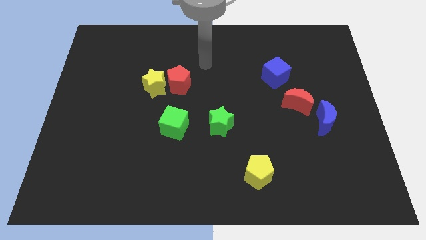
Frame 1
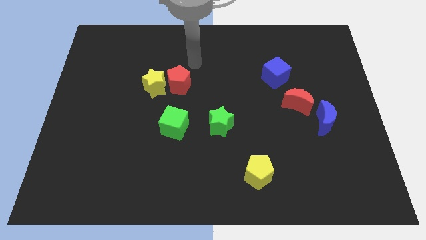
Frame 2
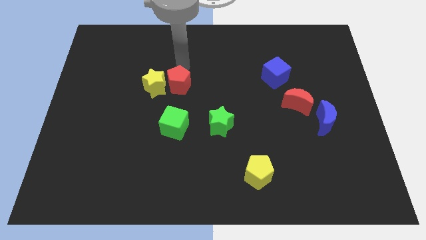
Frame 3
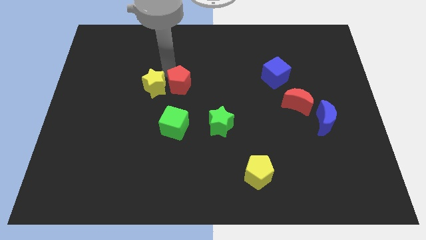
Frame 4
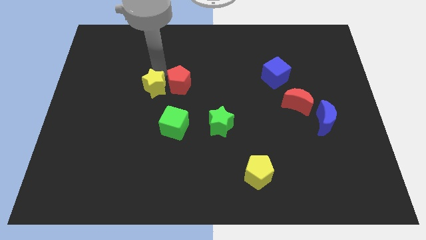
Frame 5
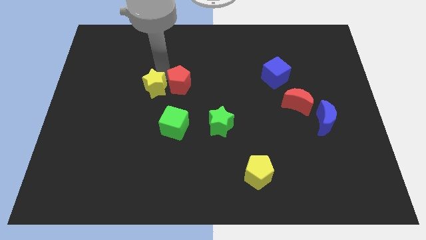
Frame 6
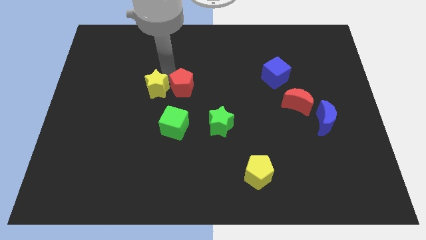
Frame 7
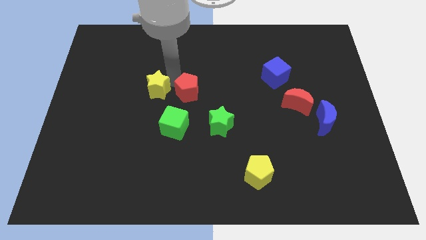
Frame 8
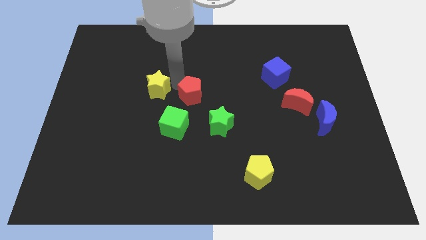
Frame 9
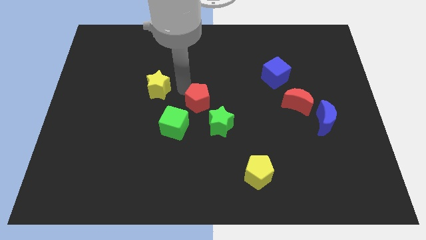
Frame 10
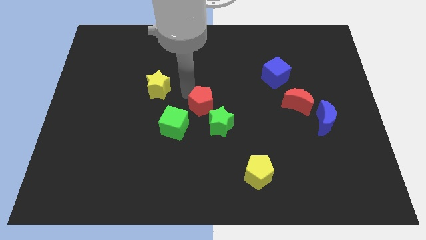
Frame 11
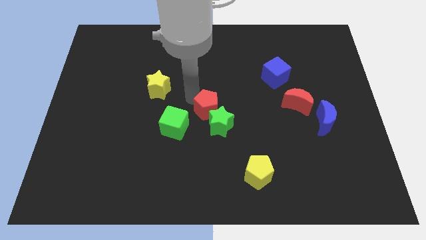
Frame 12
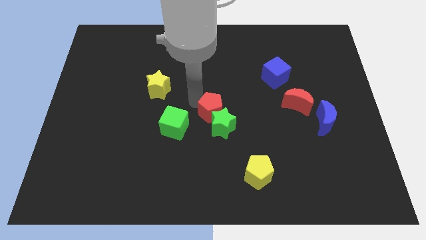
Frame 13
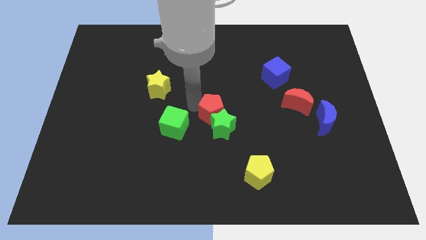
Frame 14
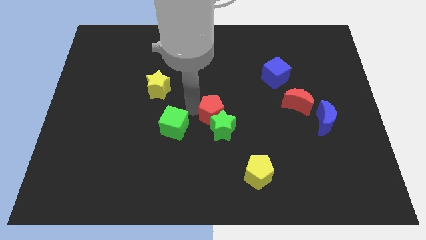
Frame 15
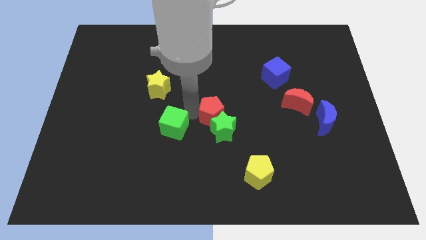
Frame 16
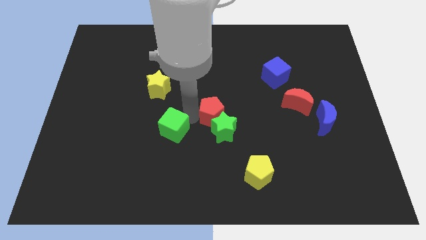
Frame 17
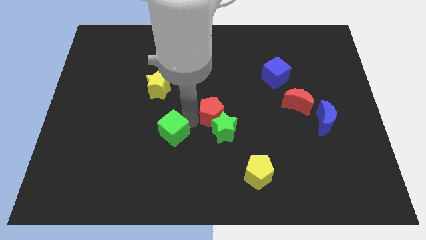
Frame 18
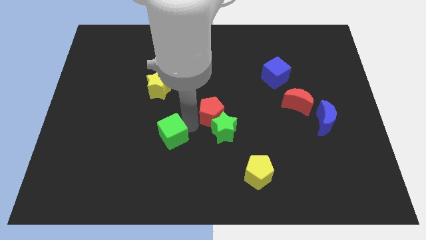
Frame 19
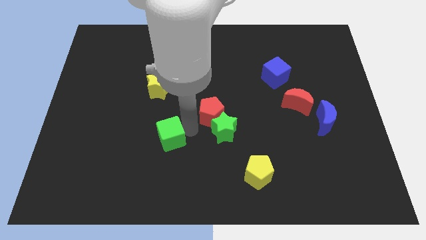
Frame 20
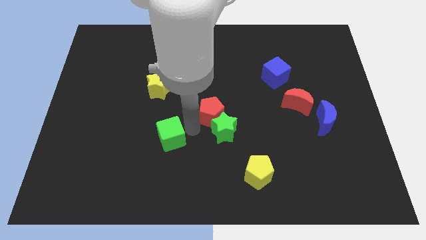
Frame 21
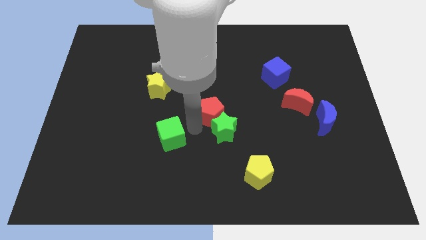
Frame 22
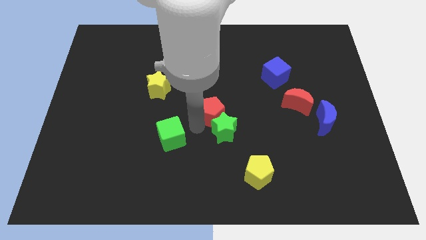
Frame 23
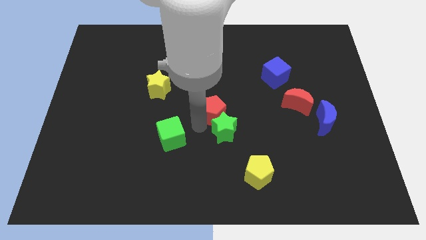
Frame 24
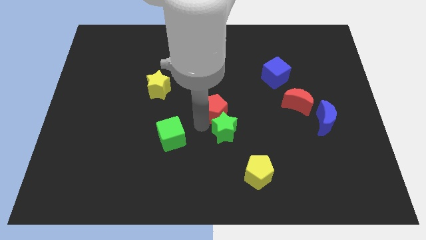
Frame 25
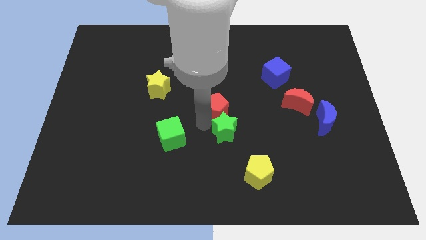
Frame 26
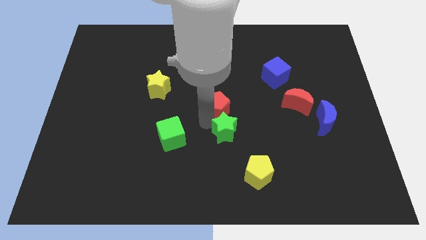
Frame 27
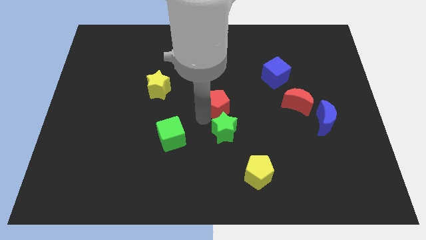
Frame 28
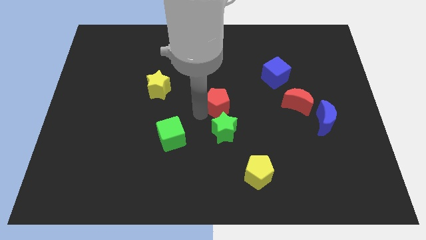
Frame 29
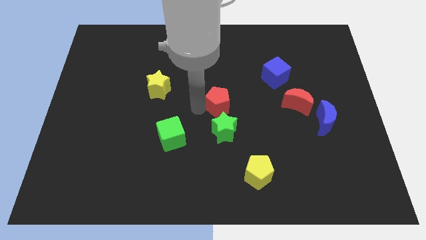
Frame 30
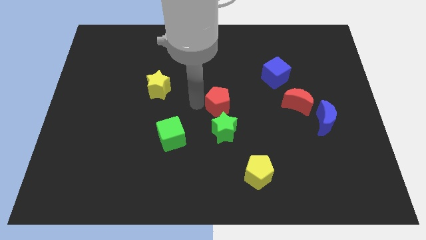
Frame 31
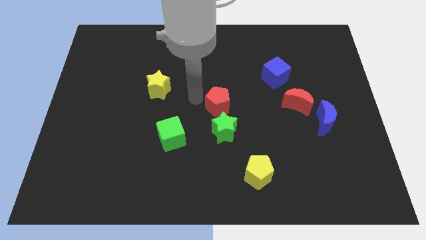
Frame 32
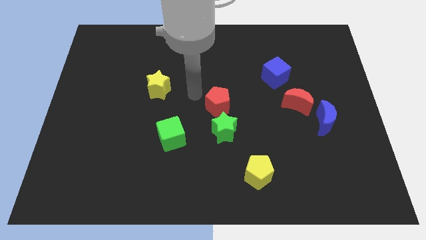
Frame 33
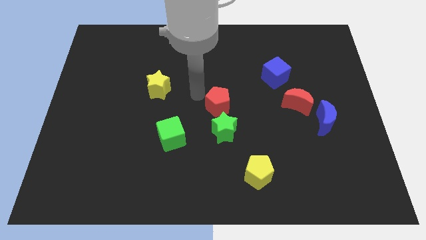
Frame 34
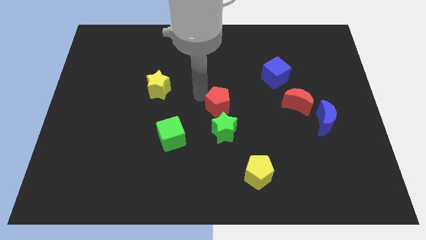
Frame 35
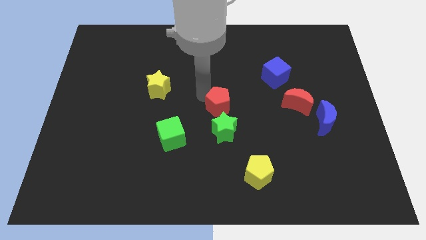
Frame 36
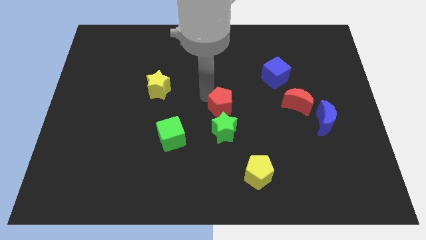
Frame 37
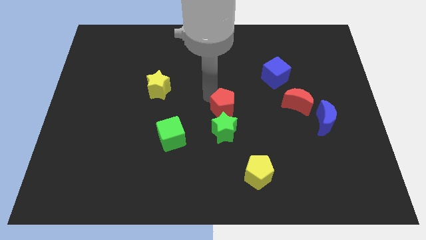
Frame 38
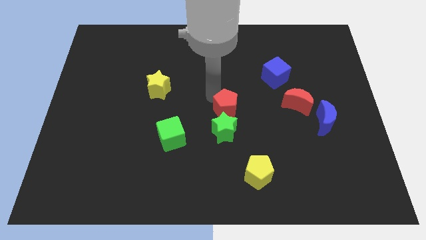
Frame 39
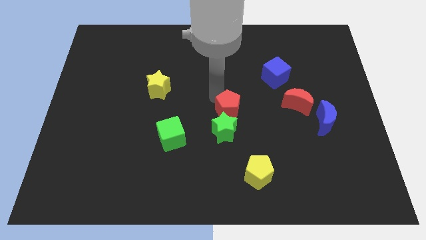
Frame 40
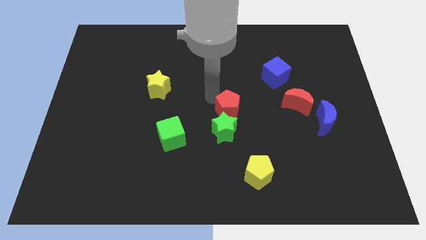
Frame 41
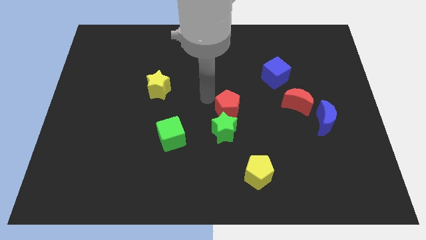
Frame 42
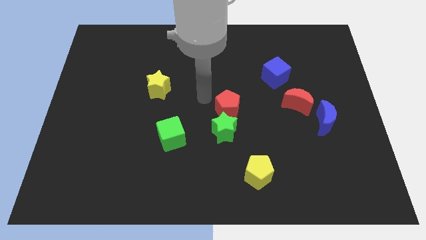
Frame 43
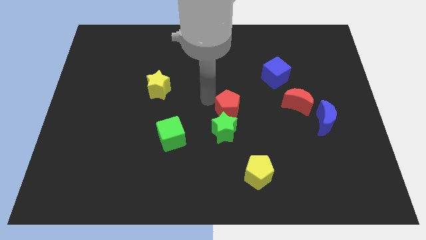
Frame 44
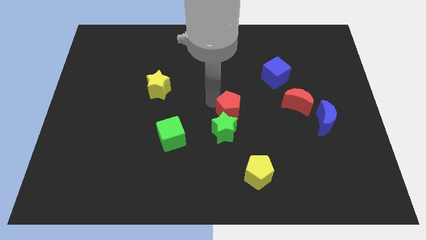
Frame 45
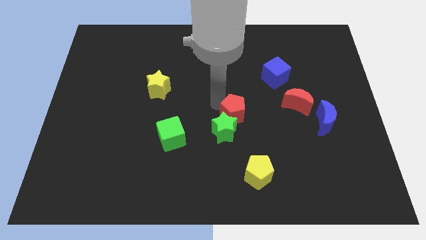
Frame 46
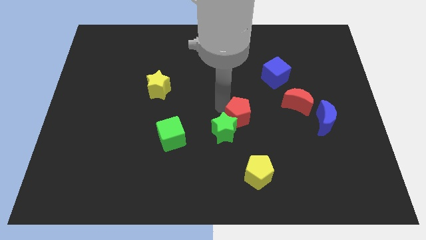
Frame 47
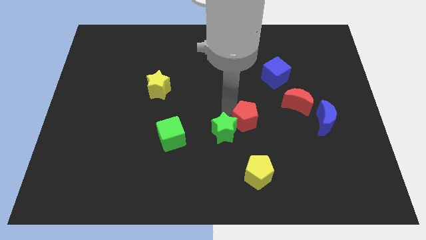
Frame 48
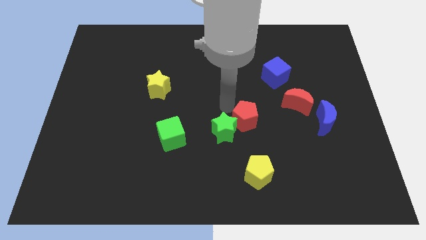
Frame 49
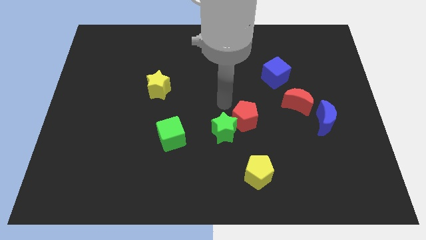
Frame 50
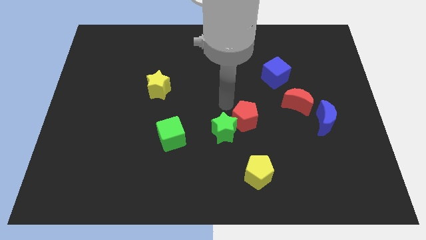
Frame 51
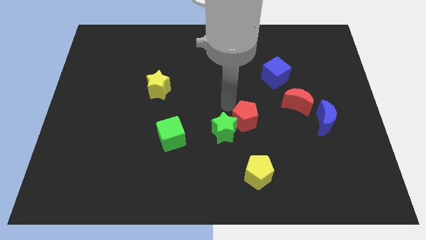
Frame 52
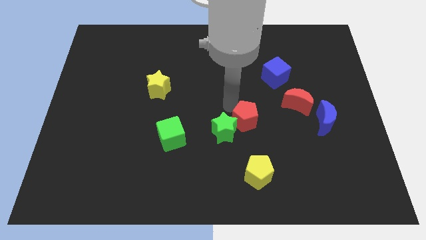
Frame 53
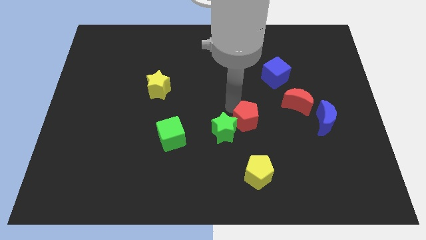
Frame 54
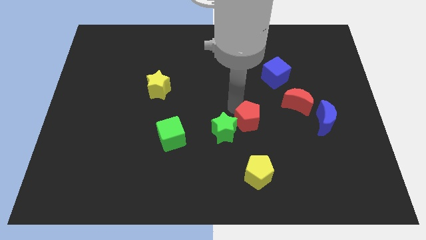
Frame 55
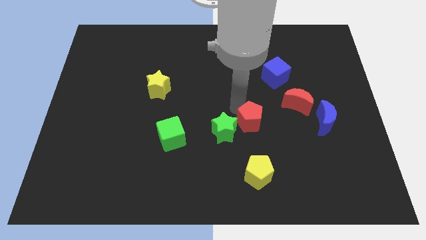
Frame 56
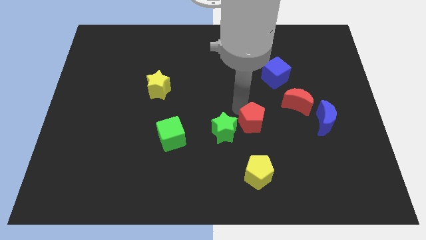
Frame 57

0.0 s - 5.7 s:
move the red pentagon downwards and right diagonally

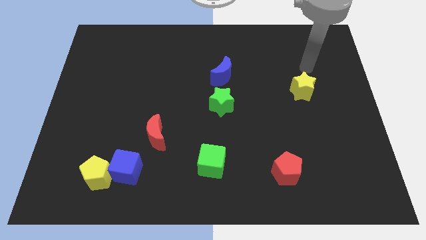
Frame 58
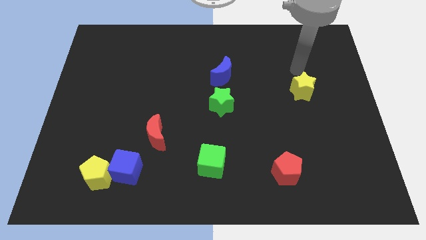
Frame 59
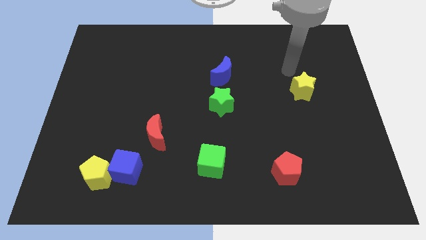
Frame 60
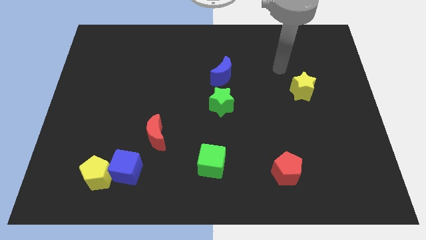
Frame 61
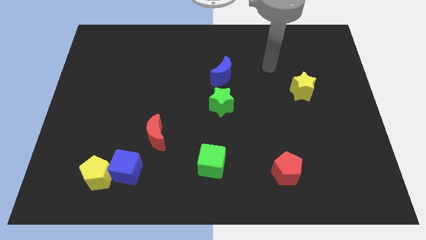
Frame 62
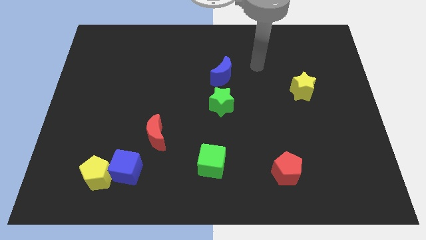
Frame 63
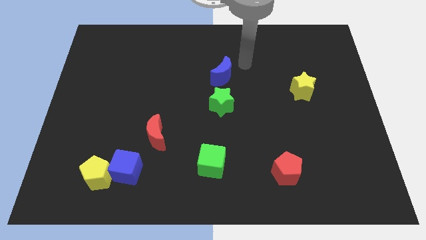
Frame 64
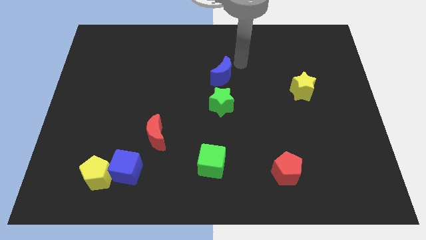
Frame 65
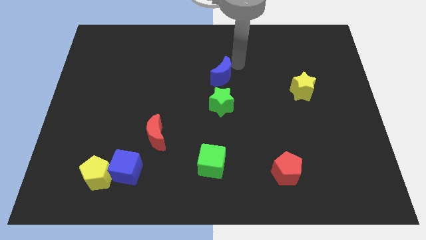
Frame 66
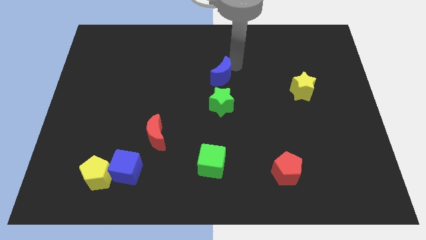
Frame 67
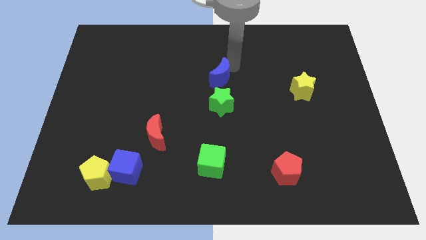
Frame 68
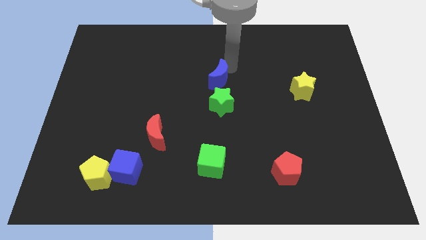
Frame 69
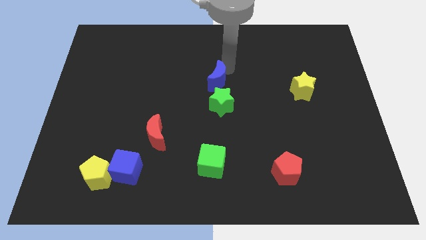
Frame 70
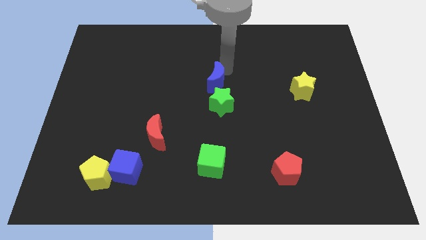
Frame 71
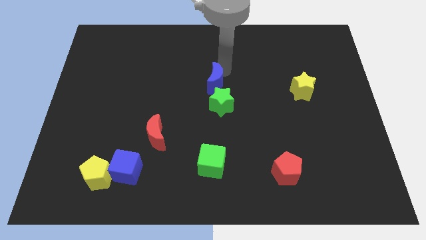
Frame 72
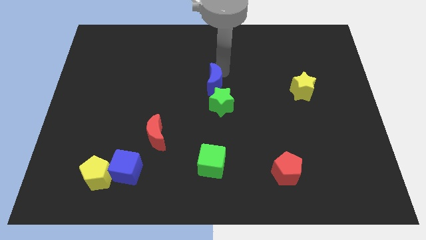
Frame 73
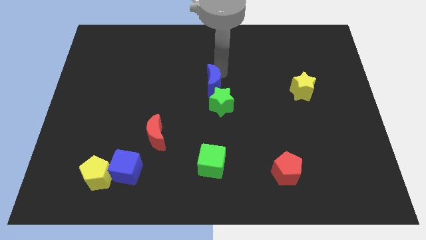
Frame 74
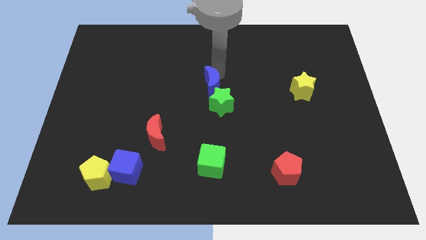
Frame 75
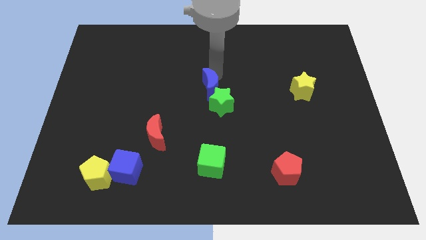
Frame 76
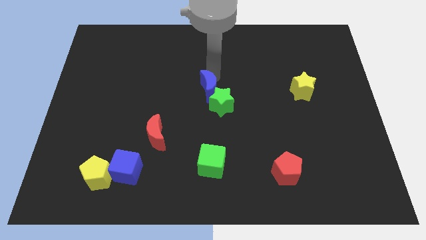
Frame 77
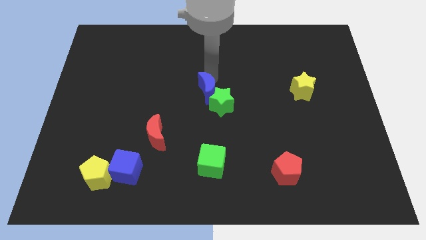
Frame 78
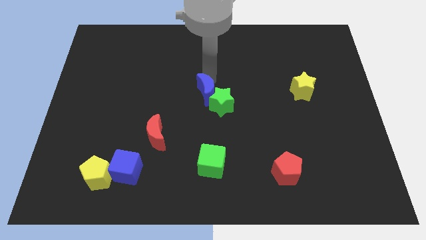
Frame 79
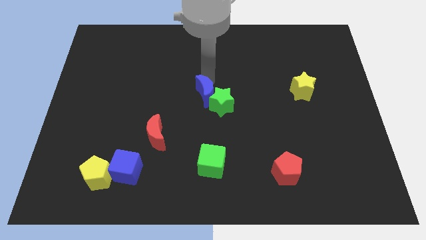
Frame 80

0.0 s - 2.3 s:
push the blue moon slightly diagonally down and to the left

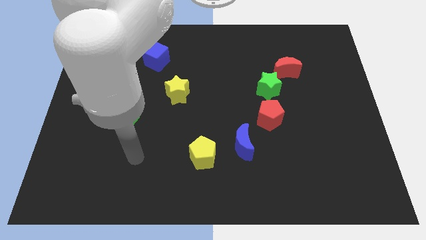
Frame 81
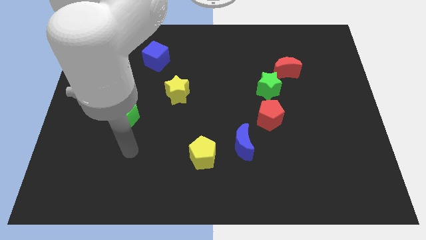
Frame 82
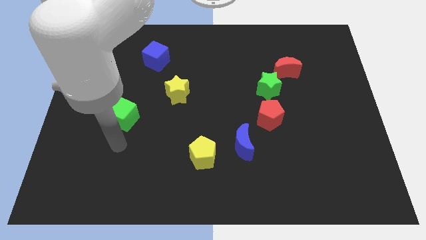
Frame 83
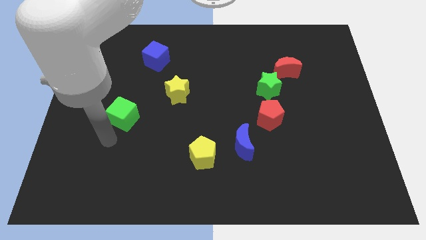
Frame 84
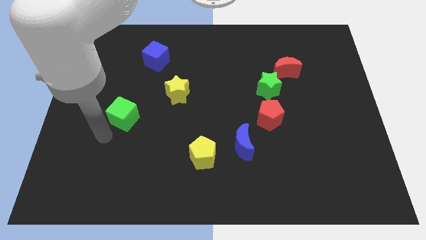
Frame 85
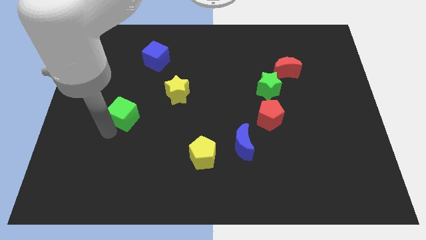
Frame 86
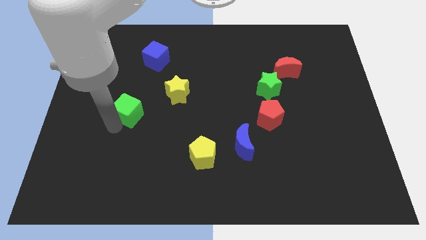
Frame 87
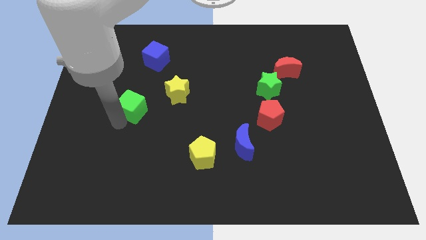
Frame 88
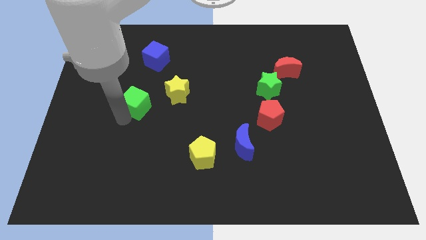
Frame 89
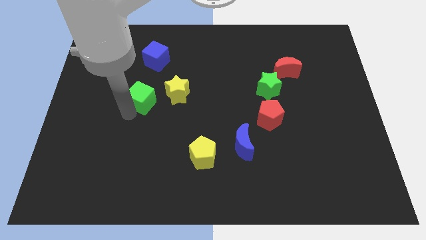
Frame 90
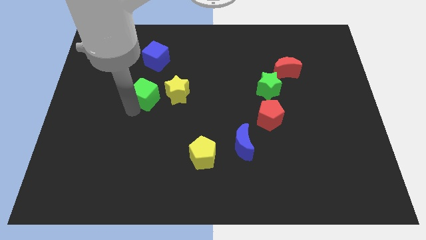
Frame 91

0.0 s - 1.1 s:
slide the green cube up and to the right diagonally somewhat
